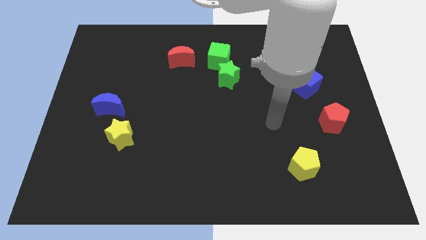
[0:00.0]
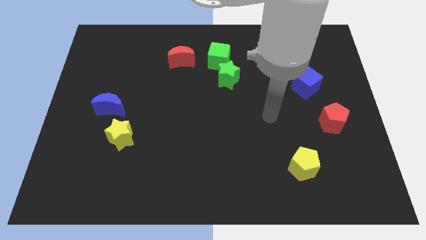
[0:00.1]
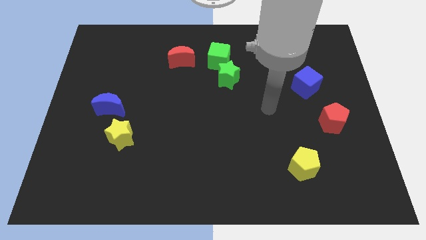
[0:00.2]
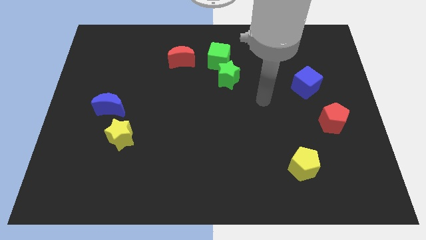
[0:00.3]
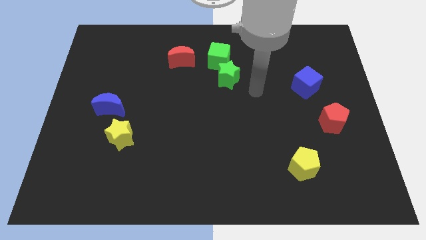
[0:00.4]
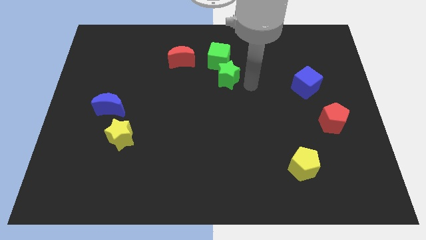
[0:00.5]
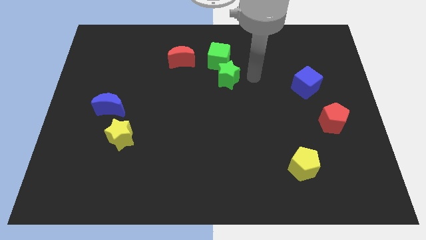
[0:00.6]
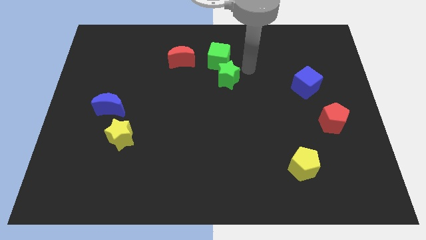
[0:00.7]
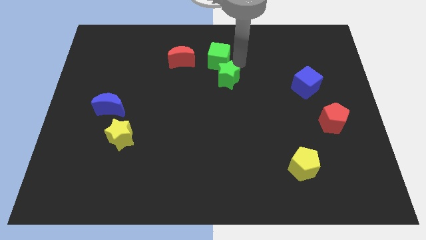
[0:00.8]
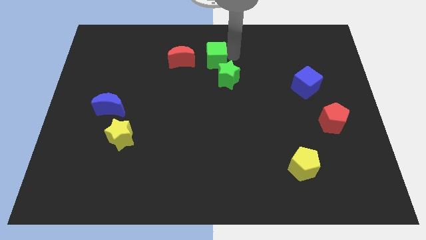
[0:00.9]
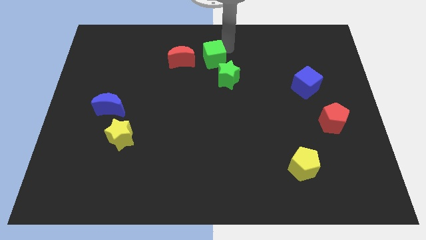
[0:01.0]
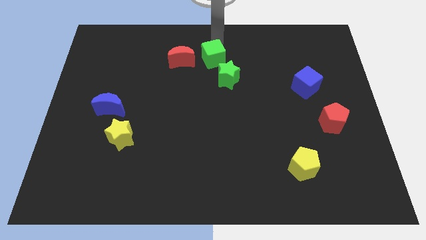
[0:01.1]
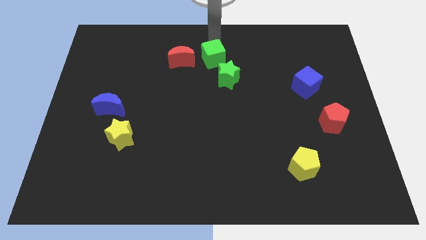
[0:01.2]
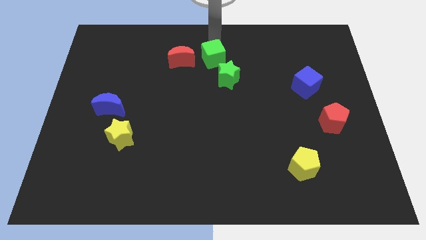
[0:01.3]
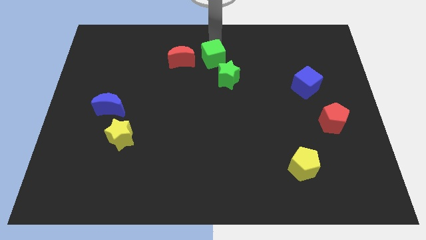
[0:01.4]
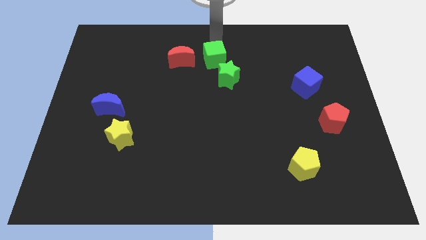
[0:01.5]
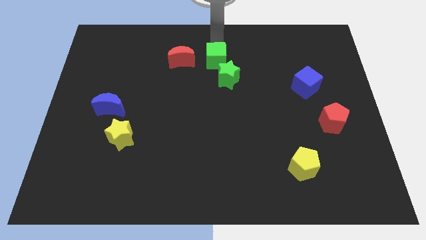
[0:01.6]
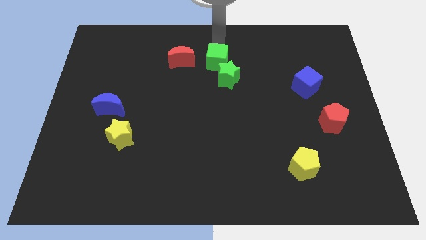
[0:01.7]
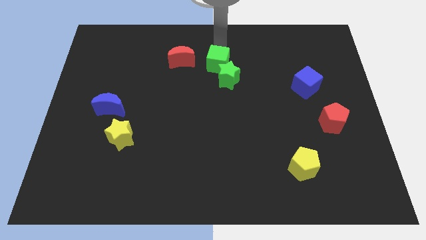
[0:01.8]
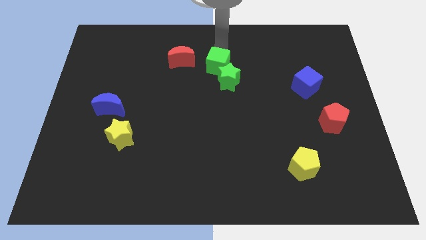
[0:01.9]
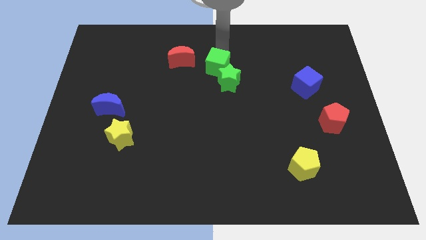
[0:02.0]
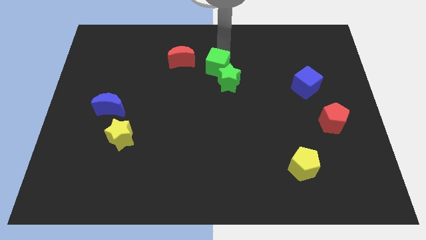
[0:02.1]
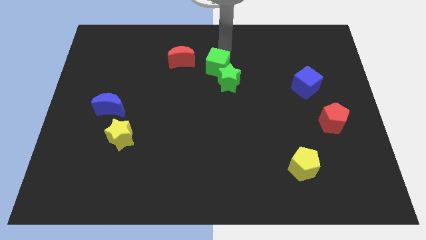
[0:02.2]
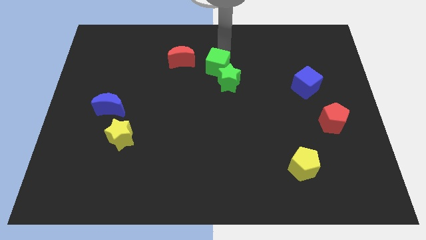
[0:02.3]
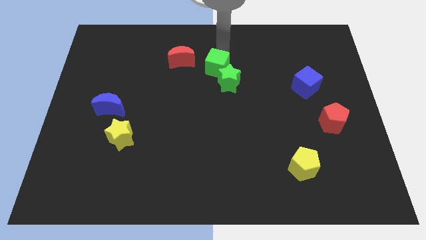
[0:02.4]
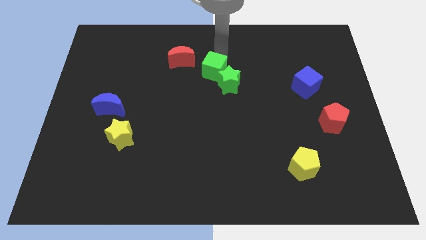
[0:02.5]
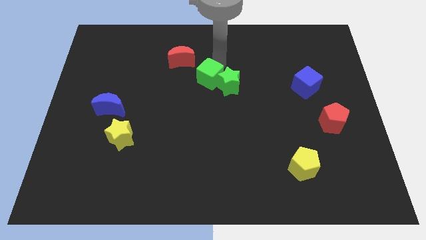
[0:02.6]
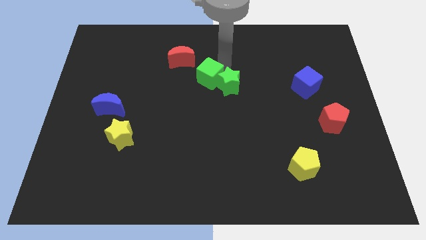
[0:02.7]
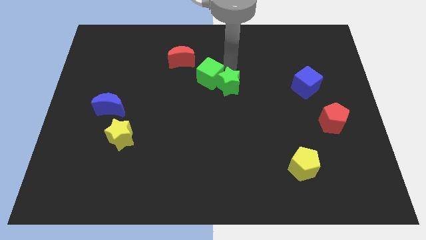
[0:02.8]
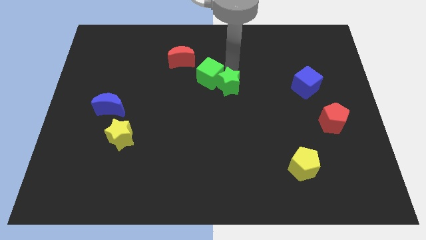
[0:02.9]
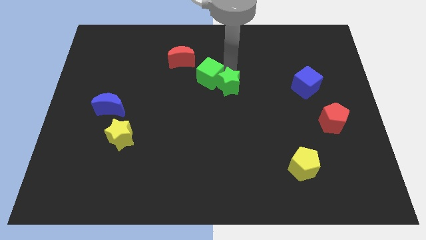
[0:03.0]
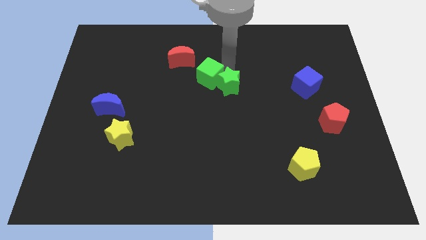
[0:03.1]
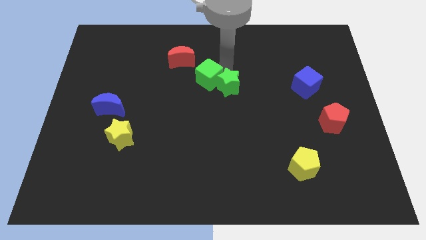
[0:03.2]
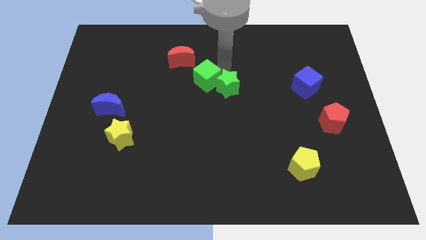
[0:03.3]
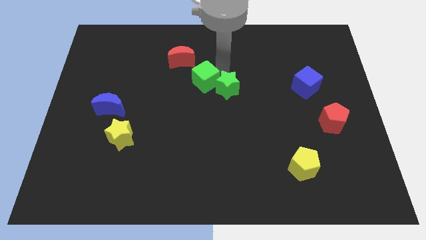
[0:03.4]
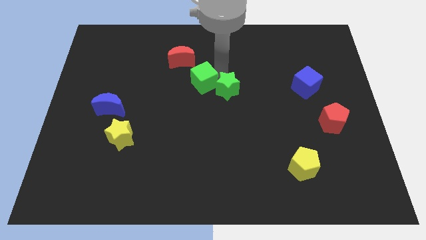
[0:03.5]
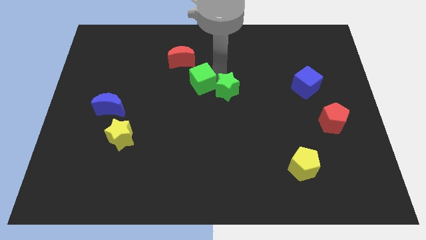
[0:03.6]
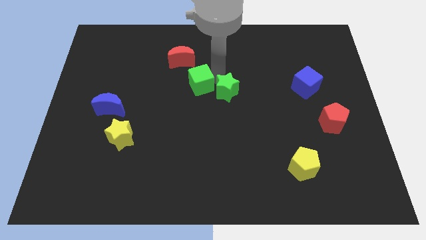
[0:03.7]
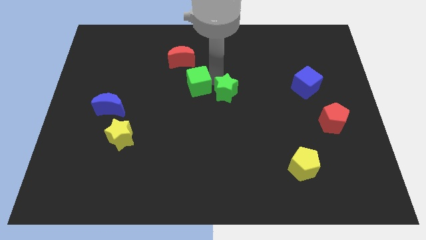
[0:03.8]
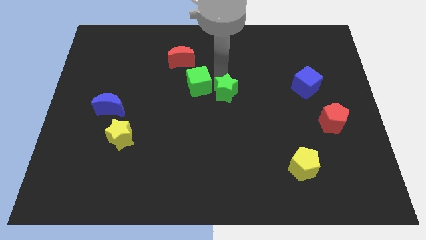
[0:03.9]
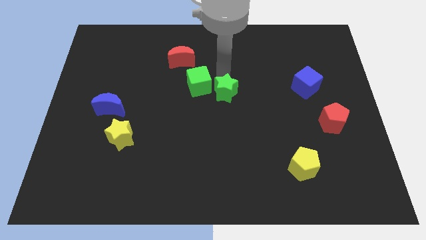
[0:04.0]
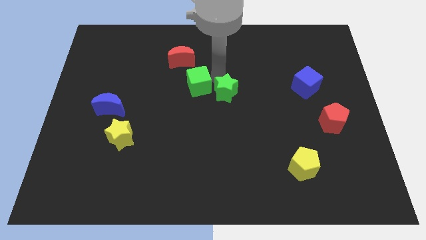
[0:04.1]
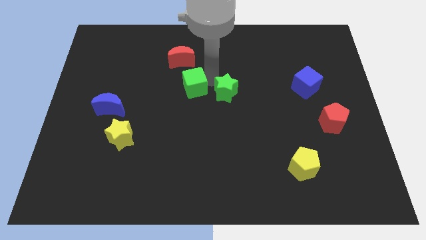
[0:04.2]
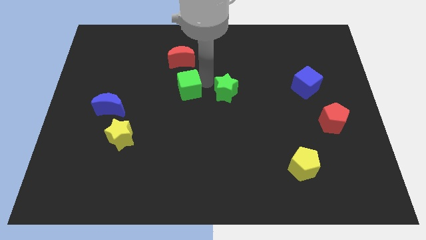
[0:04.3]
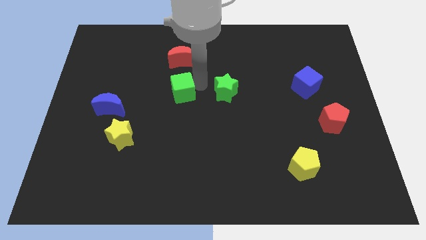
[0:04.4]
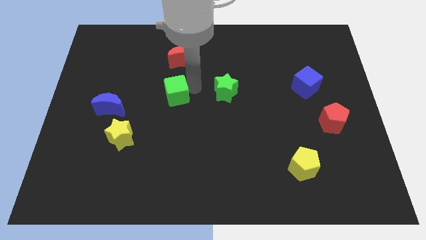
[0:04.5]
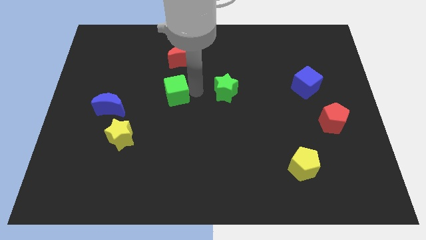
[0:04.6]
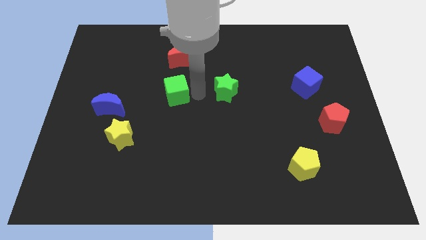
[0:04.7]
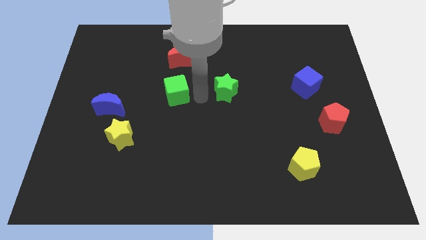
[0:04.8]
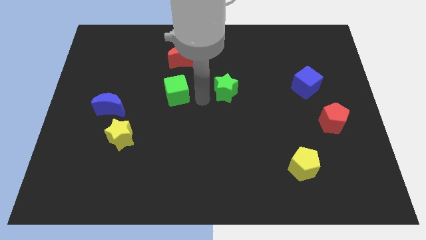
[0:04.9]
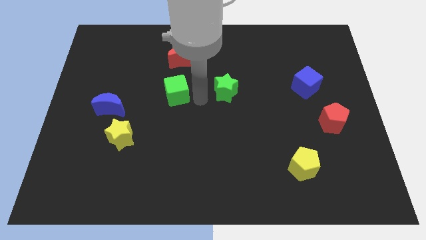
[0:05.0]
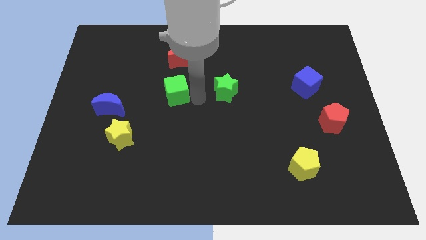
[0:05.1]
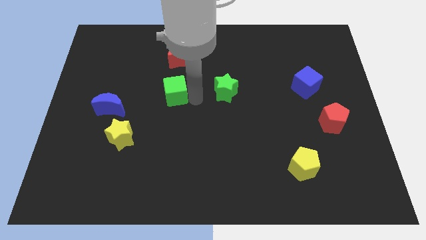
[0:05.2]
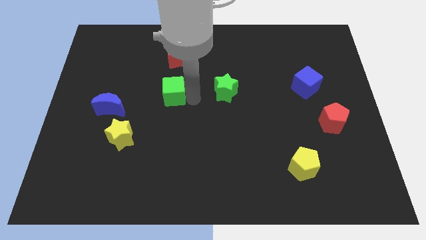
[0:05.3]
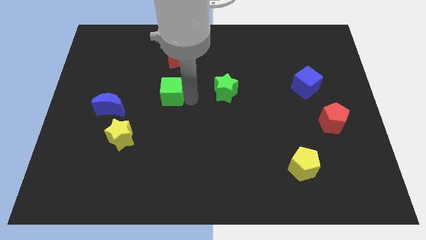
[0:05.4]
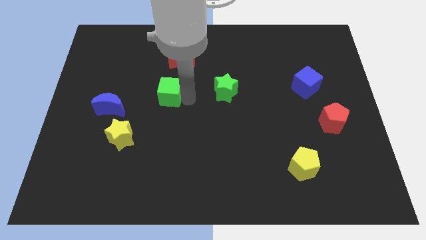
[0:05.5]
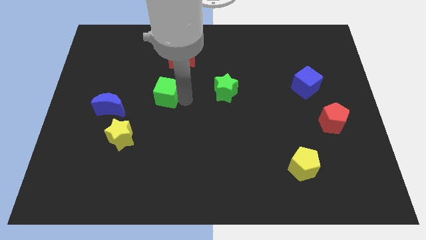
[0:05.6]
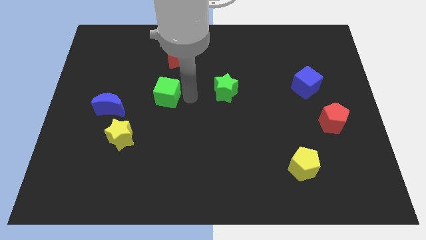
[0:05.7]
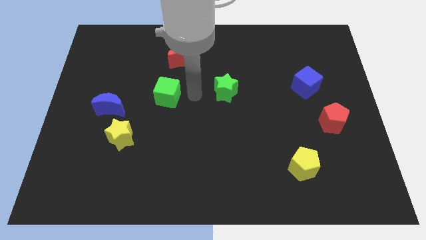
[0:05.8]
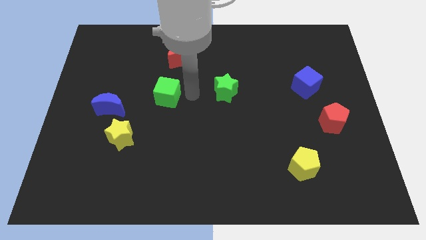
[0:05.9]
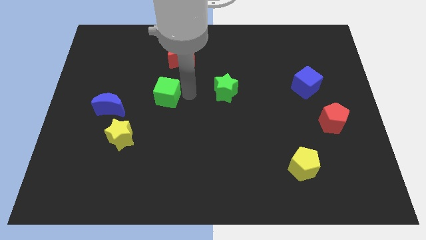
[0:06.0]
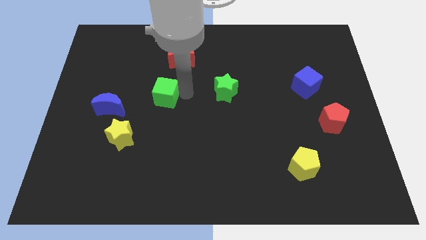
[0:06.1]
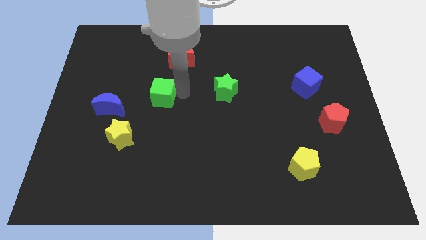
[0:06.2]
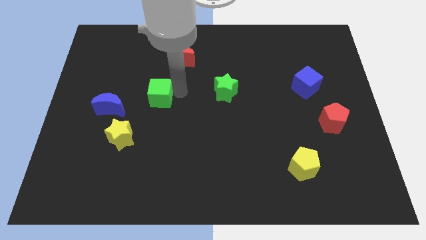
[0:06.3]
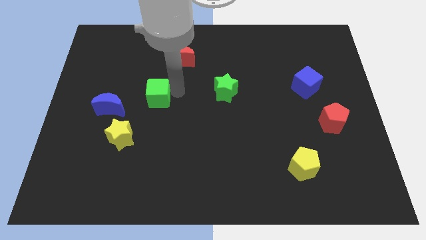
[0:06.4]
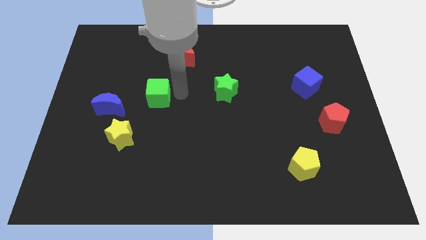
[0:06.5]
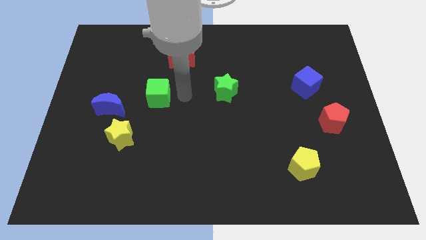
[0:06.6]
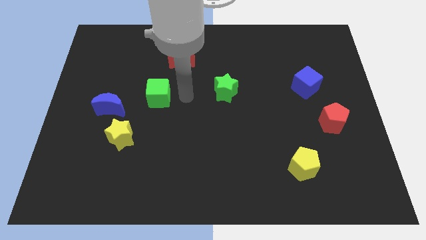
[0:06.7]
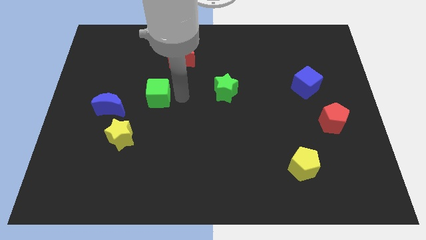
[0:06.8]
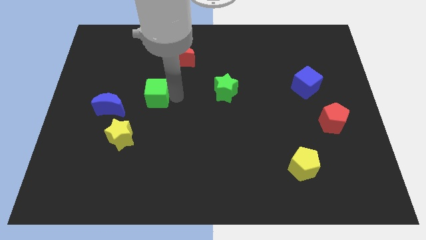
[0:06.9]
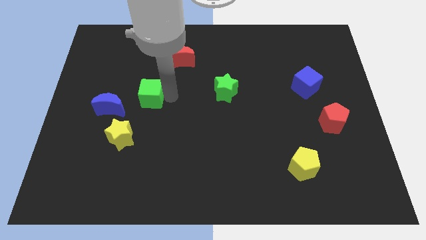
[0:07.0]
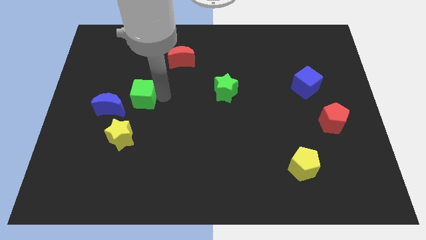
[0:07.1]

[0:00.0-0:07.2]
push the green cube to the top of the yellow star
